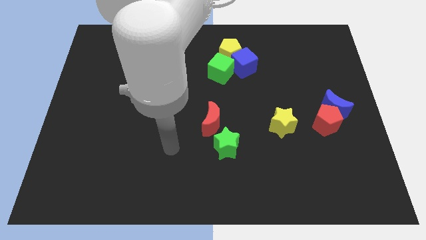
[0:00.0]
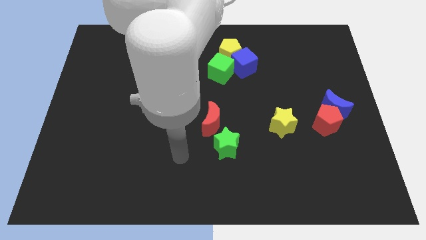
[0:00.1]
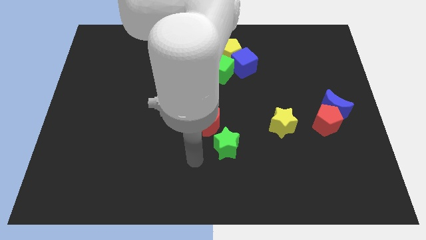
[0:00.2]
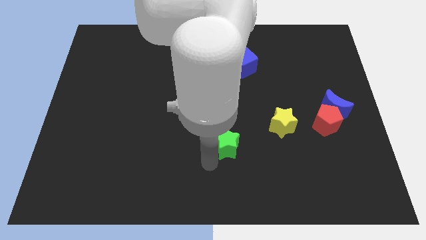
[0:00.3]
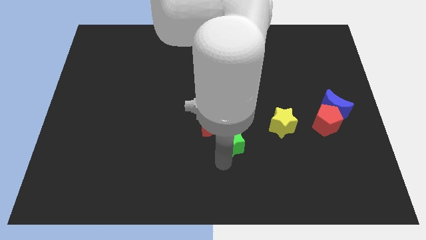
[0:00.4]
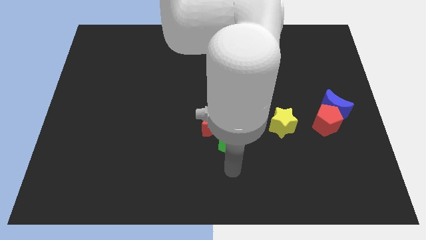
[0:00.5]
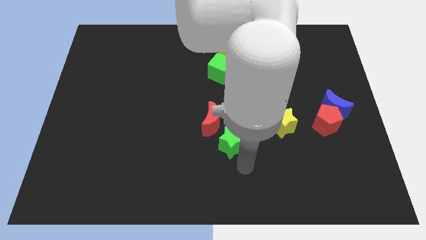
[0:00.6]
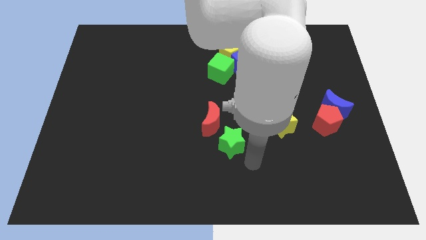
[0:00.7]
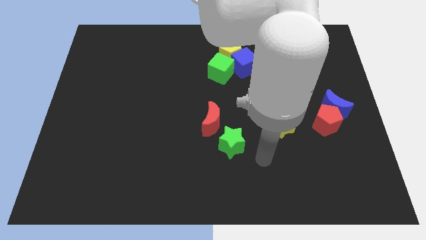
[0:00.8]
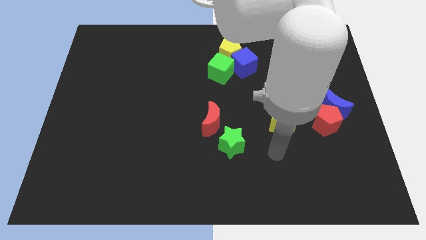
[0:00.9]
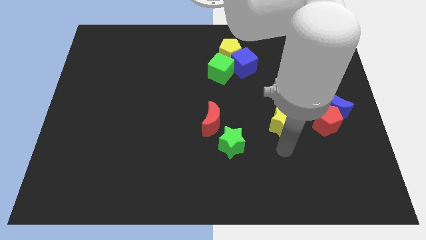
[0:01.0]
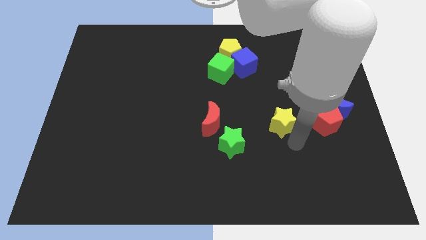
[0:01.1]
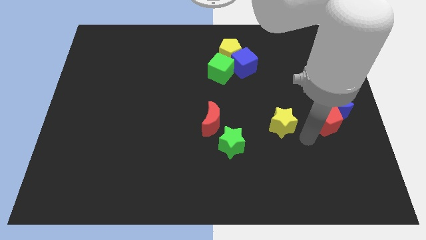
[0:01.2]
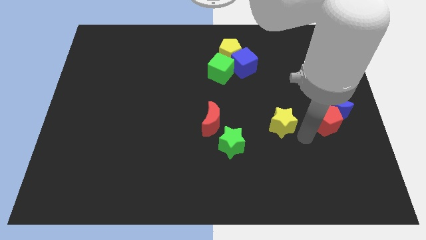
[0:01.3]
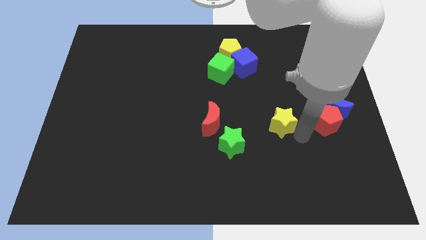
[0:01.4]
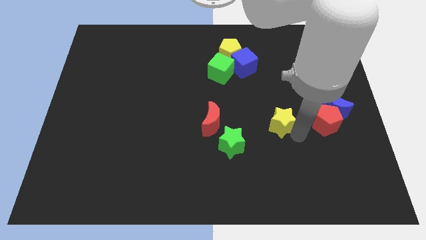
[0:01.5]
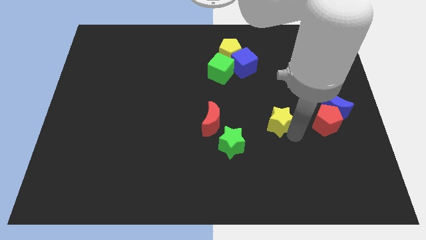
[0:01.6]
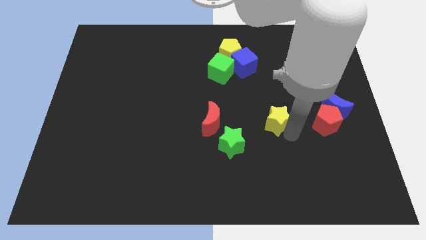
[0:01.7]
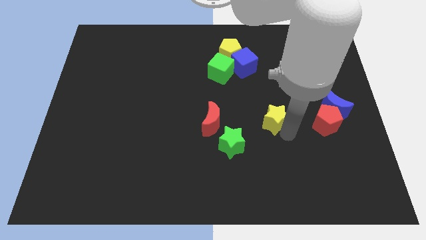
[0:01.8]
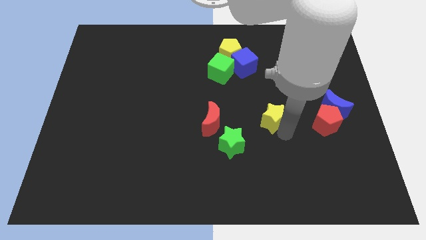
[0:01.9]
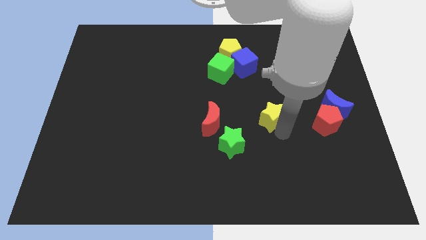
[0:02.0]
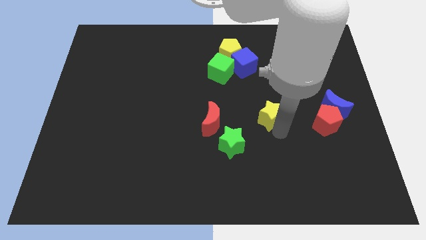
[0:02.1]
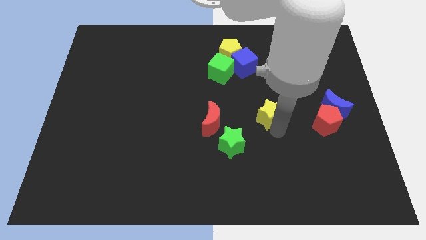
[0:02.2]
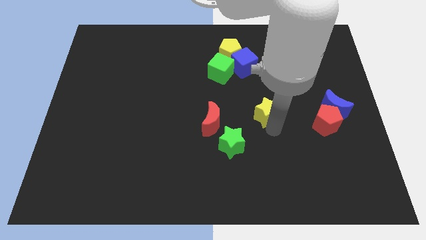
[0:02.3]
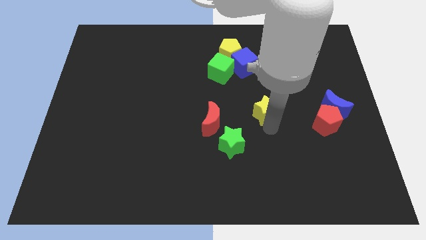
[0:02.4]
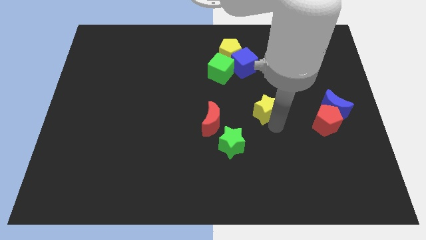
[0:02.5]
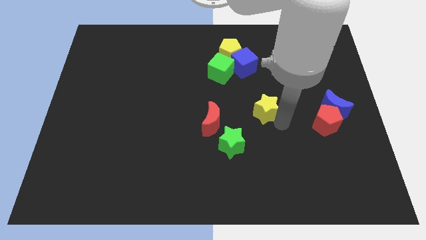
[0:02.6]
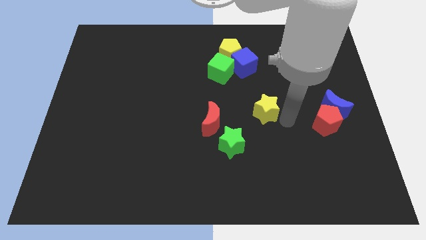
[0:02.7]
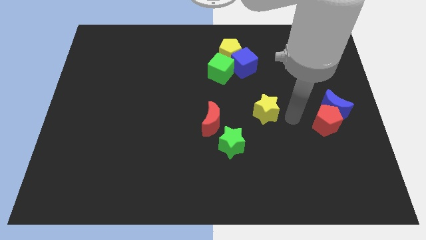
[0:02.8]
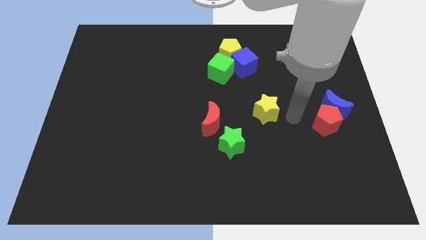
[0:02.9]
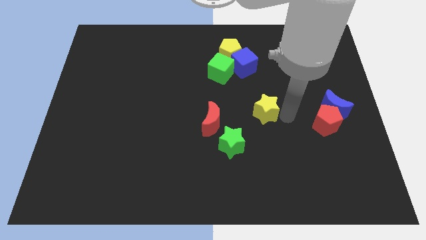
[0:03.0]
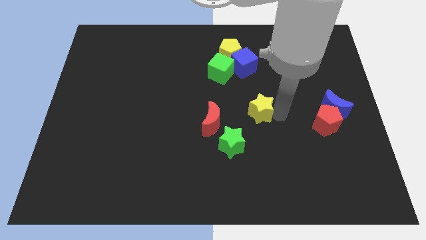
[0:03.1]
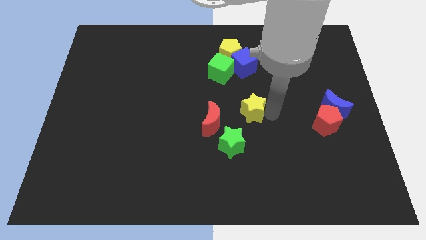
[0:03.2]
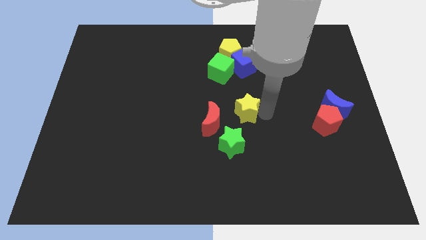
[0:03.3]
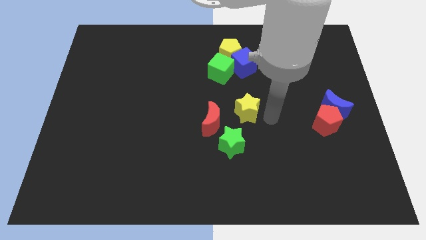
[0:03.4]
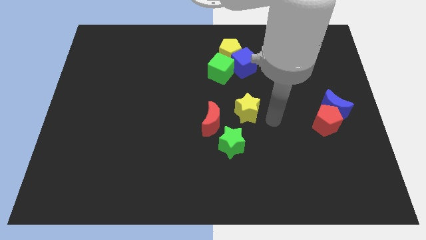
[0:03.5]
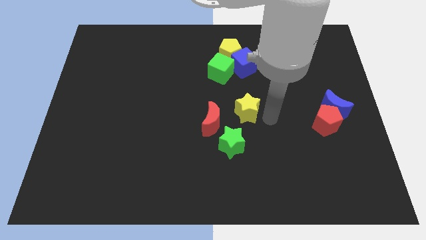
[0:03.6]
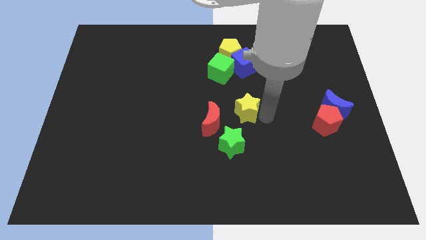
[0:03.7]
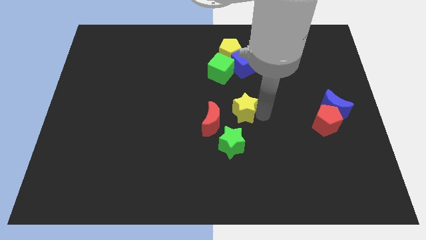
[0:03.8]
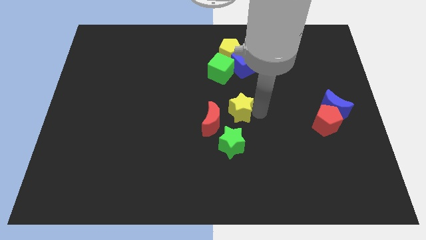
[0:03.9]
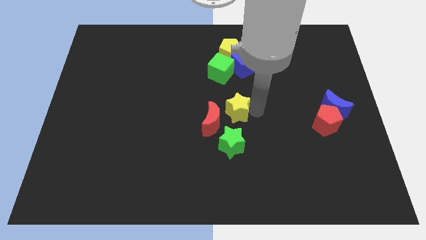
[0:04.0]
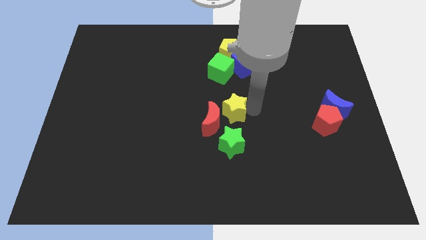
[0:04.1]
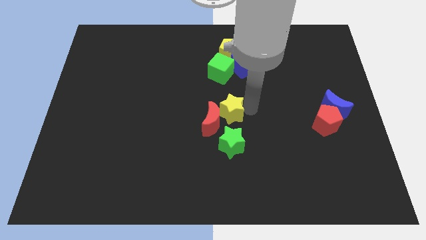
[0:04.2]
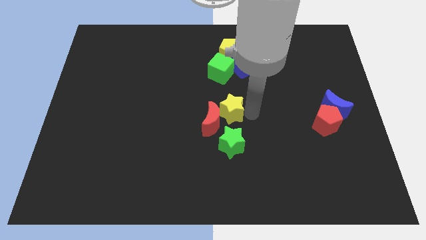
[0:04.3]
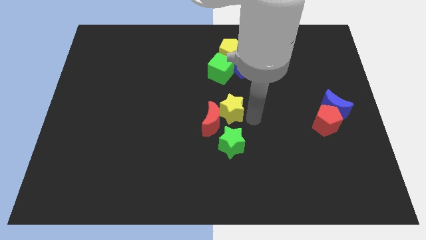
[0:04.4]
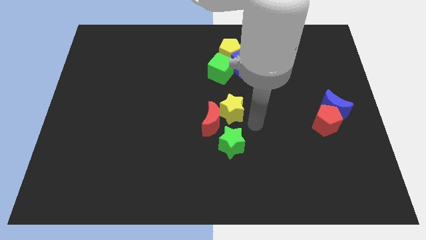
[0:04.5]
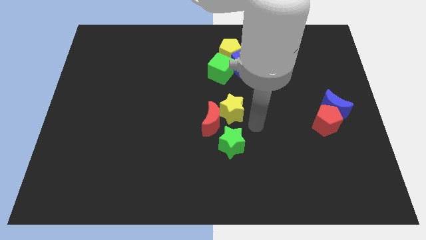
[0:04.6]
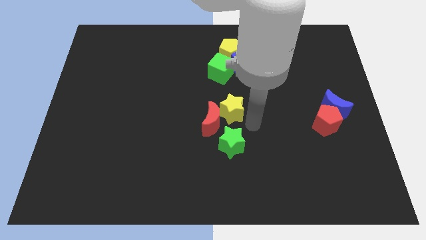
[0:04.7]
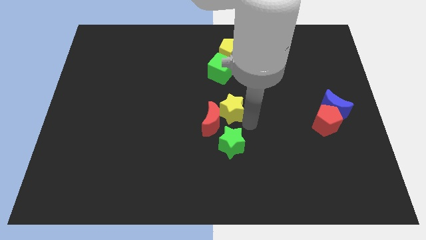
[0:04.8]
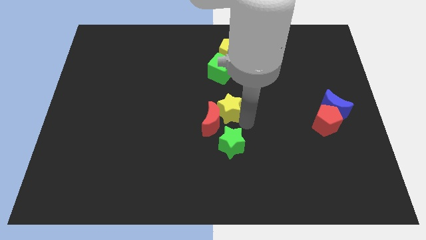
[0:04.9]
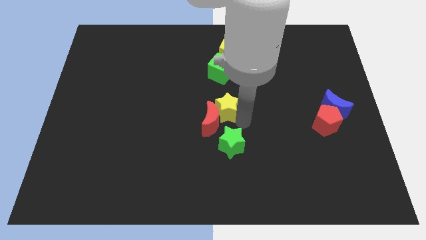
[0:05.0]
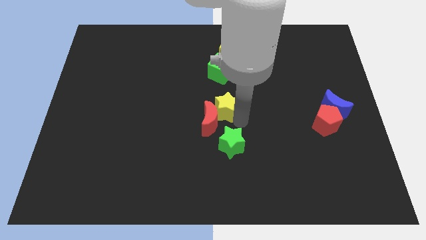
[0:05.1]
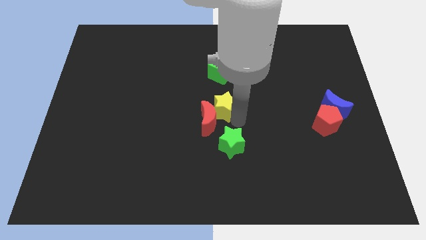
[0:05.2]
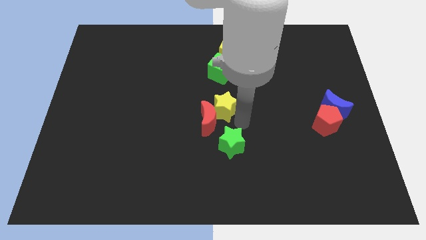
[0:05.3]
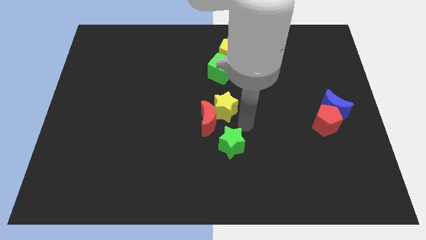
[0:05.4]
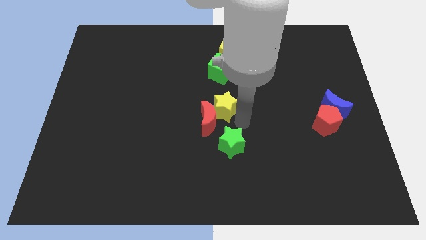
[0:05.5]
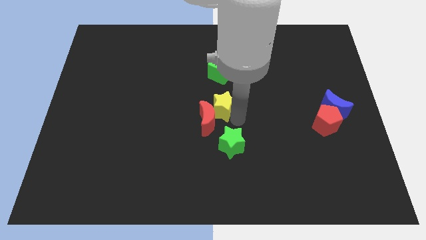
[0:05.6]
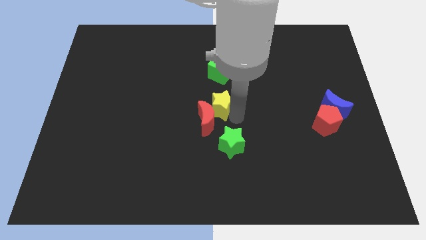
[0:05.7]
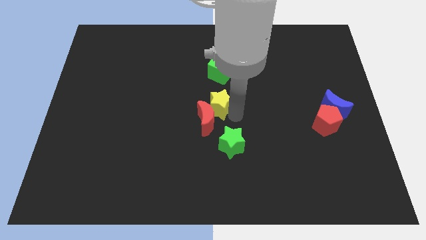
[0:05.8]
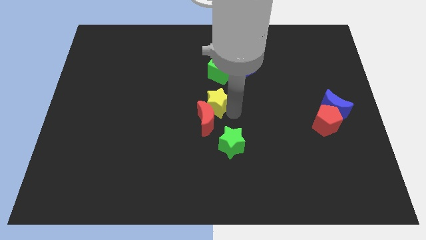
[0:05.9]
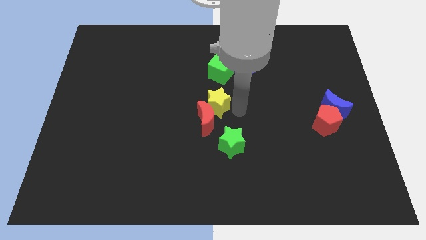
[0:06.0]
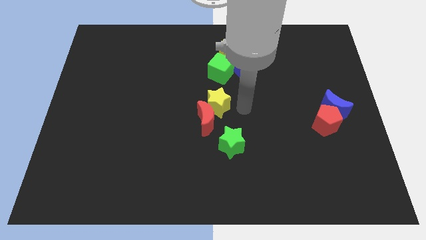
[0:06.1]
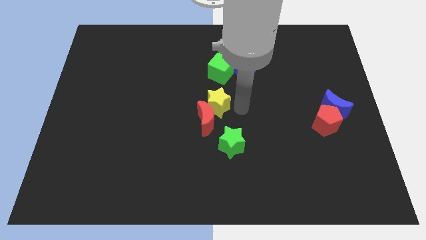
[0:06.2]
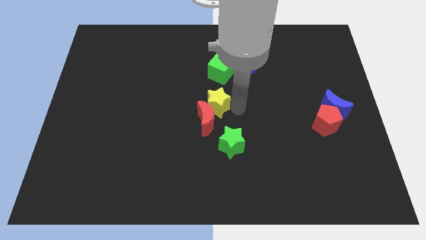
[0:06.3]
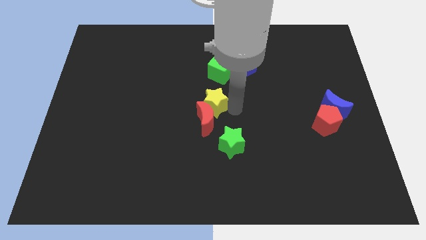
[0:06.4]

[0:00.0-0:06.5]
move the yellow star to the top left side of the red moon

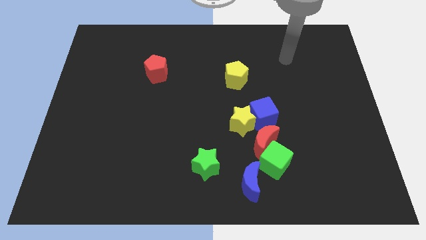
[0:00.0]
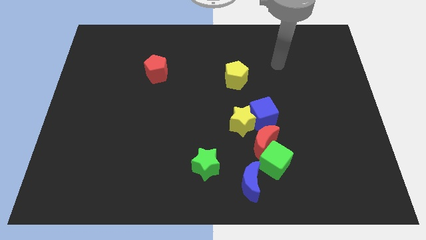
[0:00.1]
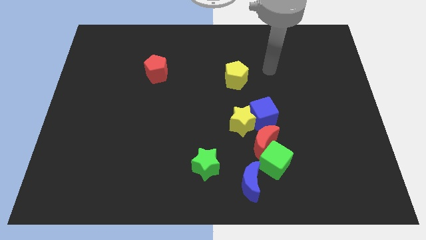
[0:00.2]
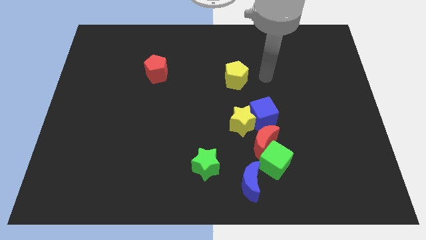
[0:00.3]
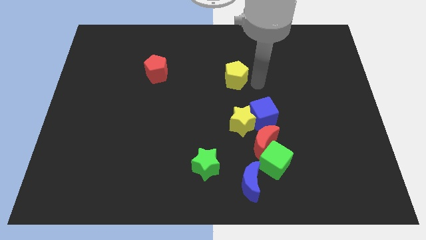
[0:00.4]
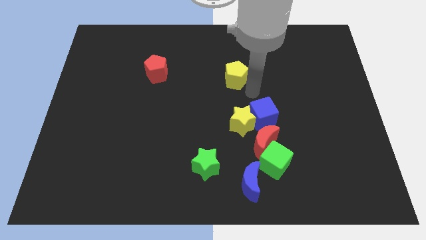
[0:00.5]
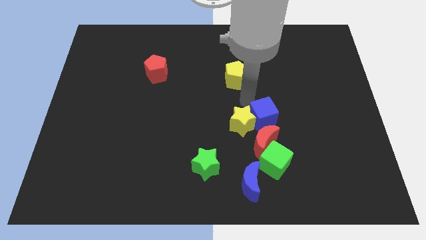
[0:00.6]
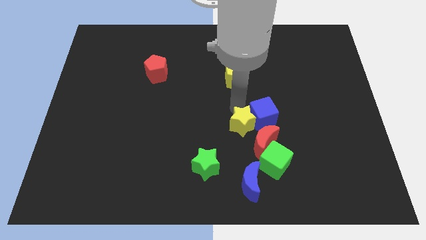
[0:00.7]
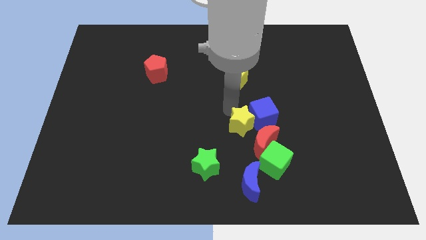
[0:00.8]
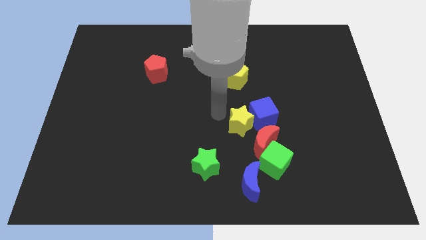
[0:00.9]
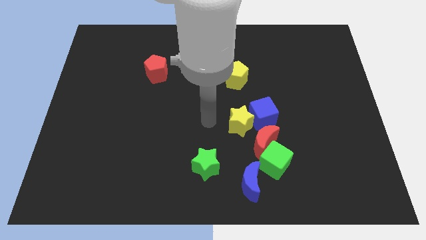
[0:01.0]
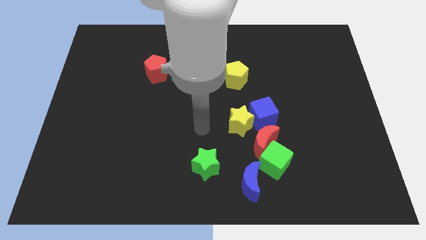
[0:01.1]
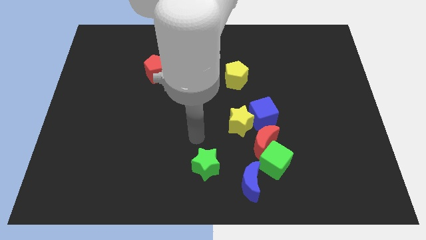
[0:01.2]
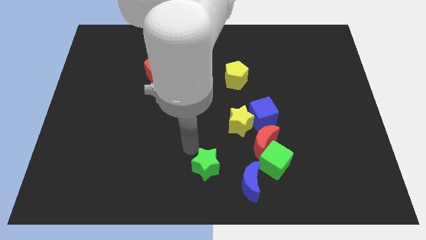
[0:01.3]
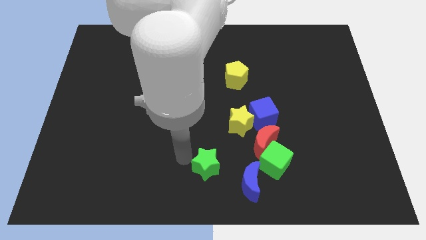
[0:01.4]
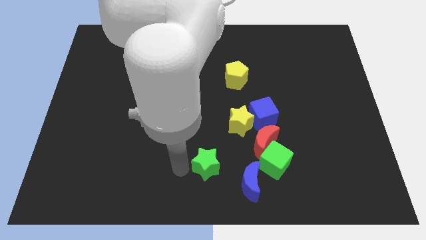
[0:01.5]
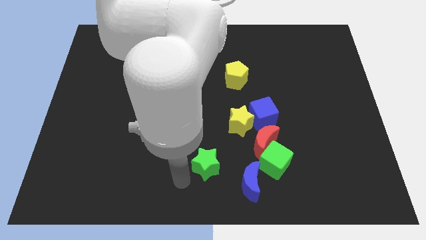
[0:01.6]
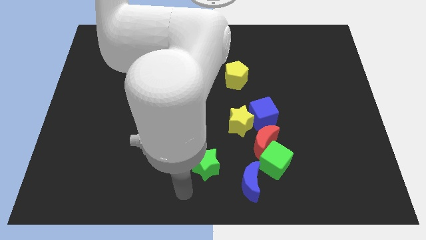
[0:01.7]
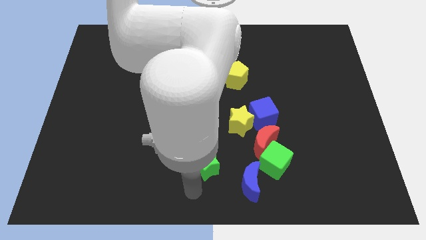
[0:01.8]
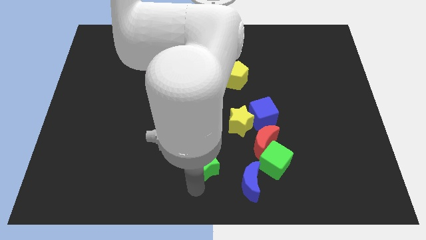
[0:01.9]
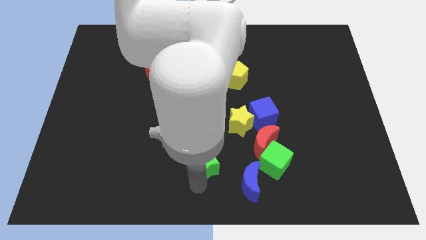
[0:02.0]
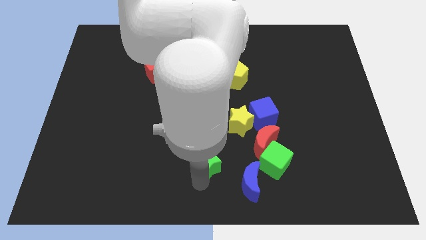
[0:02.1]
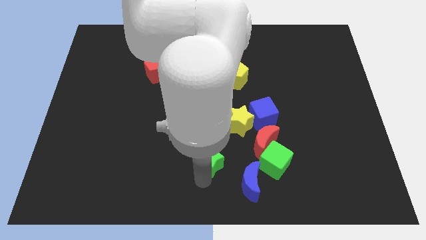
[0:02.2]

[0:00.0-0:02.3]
push the green star to the left side of the red moon
